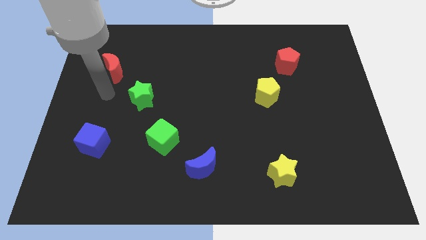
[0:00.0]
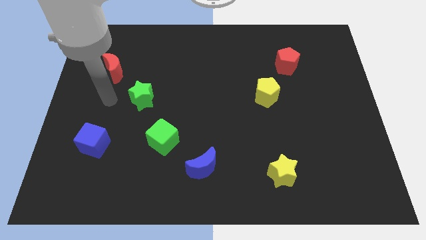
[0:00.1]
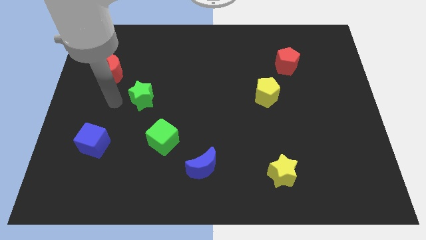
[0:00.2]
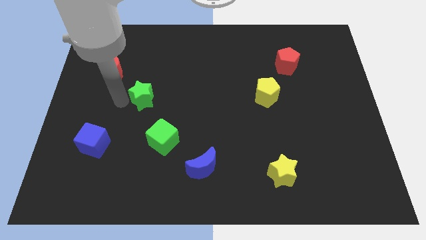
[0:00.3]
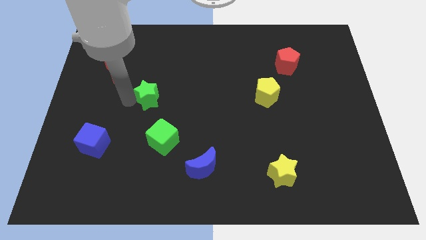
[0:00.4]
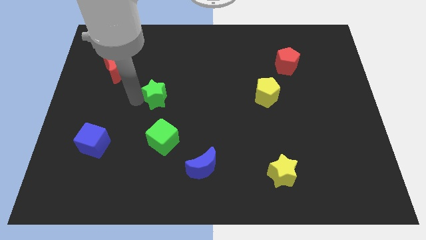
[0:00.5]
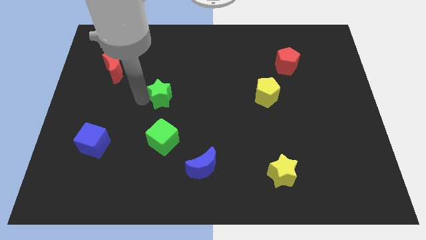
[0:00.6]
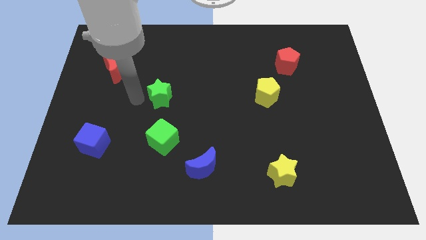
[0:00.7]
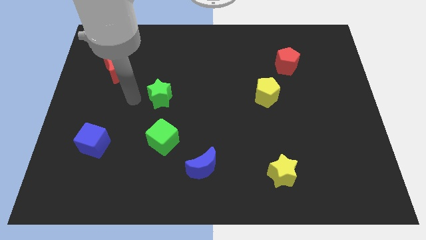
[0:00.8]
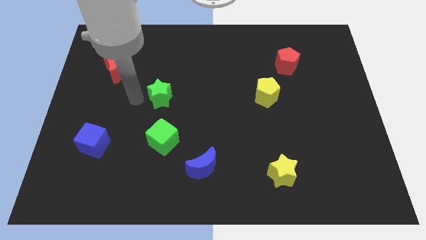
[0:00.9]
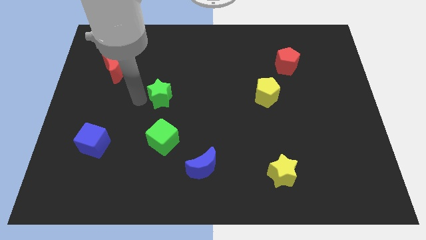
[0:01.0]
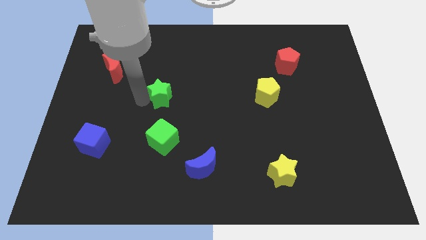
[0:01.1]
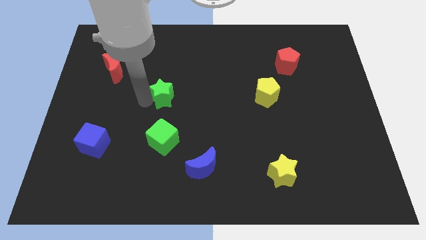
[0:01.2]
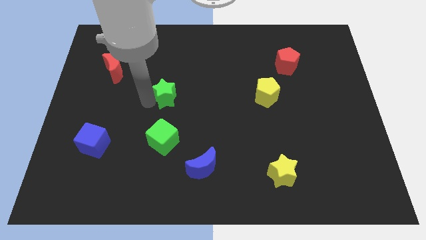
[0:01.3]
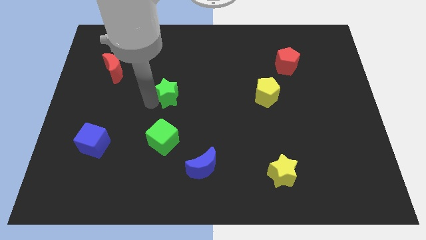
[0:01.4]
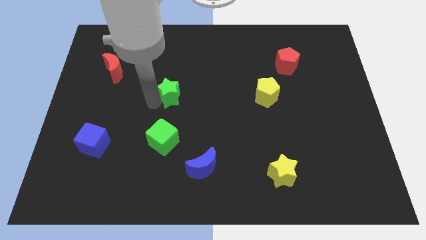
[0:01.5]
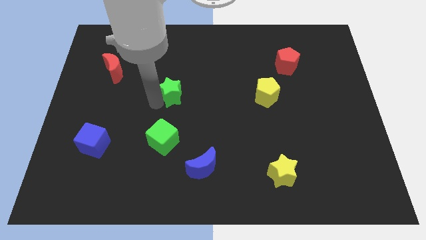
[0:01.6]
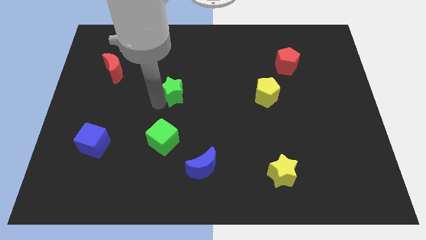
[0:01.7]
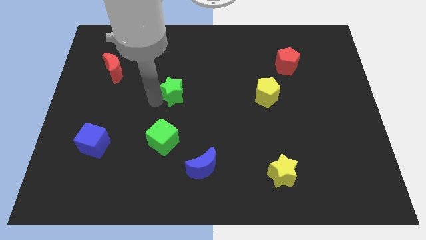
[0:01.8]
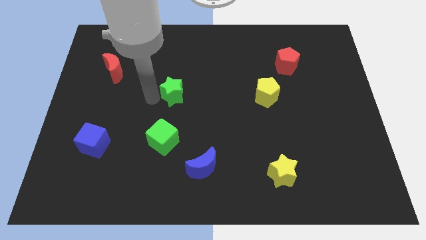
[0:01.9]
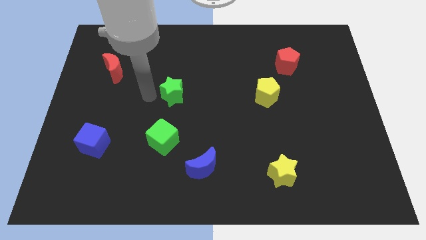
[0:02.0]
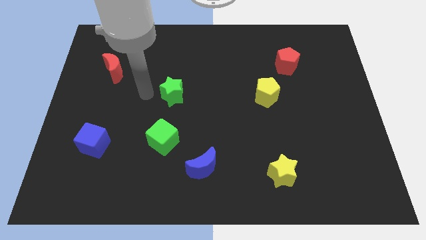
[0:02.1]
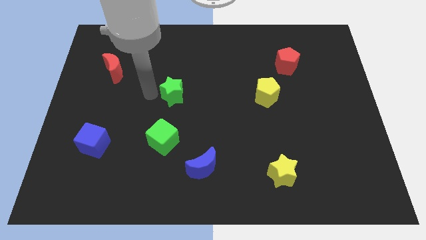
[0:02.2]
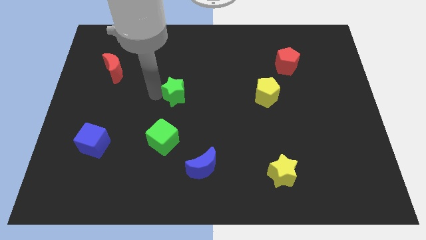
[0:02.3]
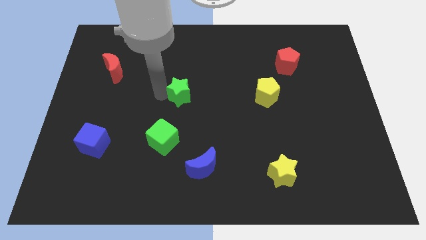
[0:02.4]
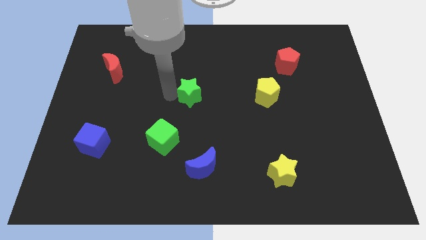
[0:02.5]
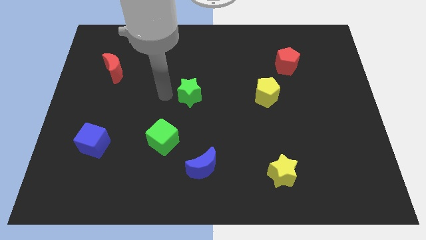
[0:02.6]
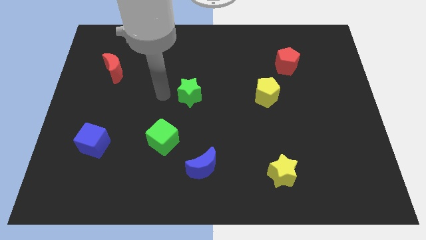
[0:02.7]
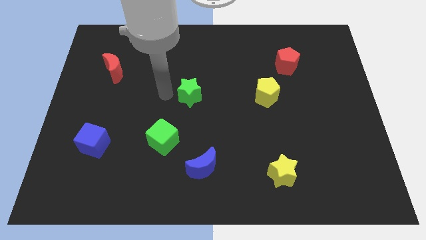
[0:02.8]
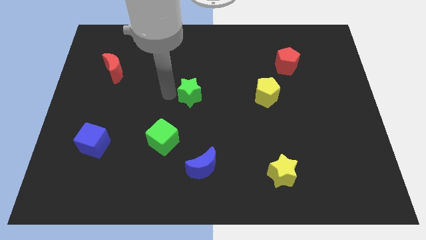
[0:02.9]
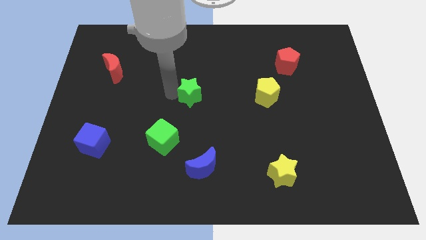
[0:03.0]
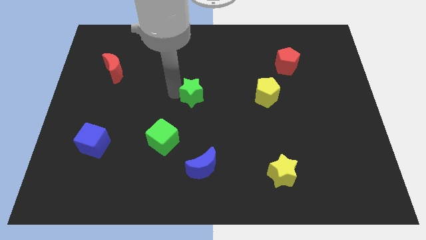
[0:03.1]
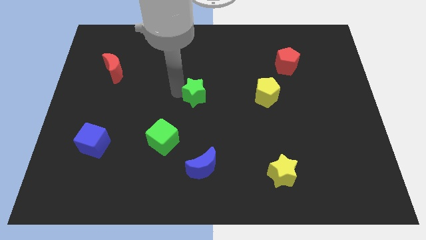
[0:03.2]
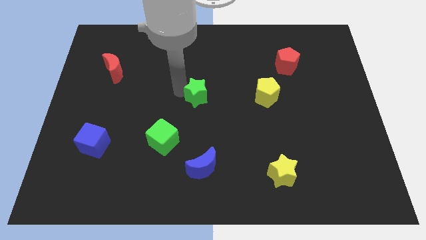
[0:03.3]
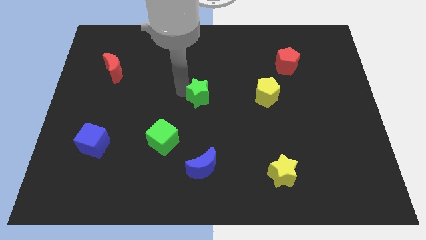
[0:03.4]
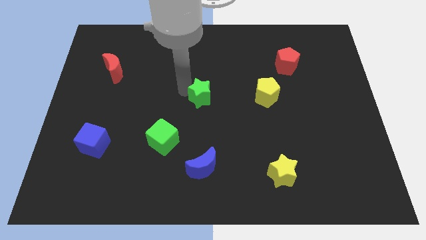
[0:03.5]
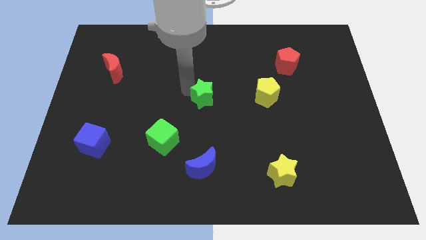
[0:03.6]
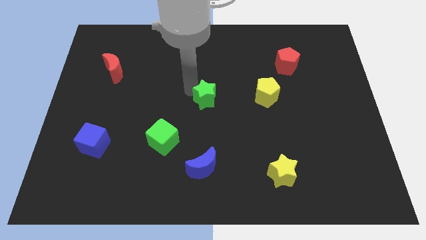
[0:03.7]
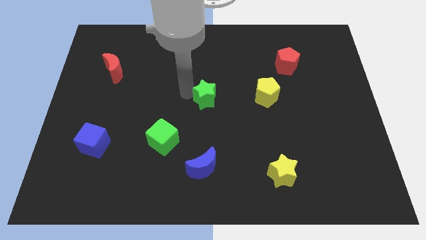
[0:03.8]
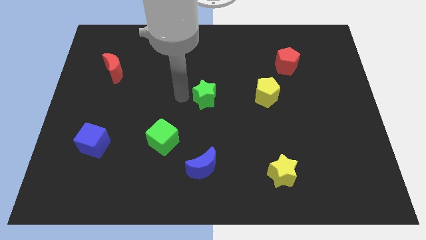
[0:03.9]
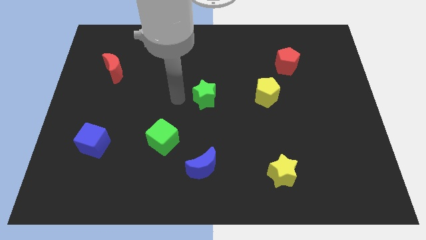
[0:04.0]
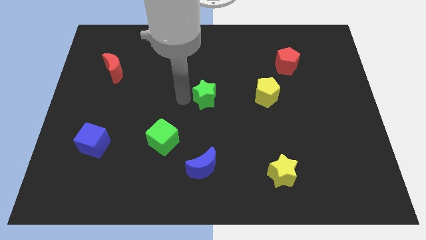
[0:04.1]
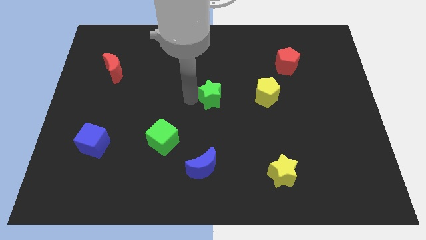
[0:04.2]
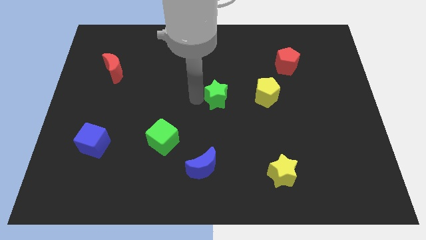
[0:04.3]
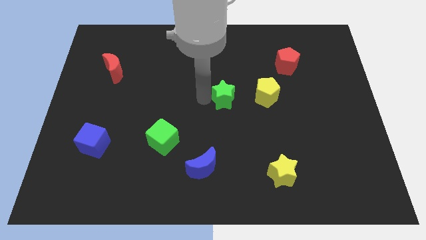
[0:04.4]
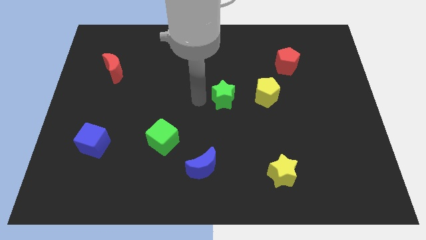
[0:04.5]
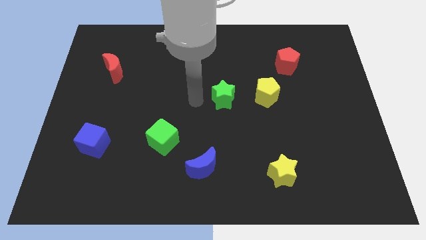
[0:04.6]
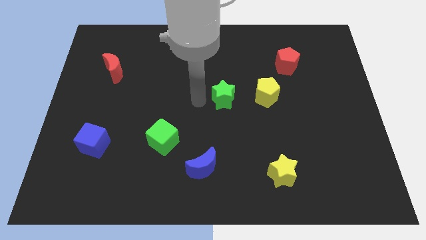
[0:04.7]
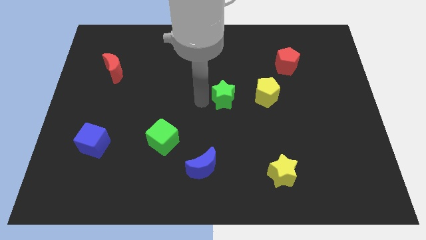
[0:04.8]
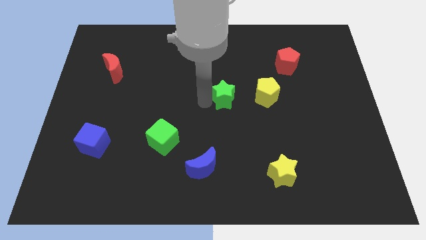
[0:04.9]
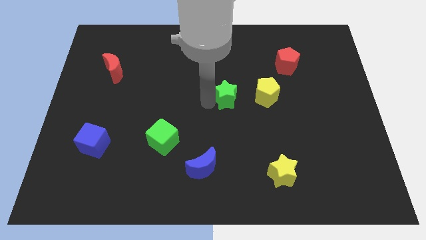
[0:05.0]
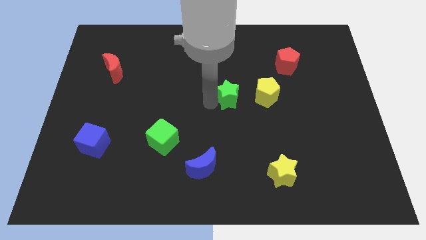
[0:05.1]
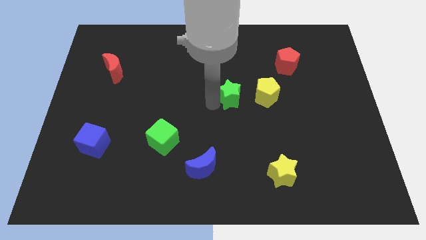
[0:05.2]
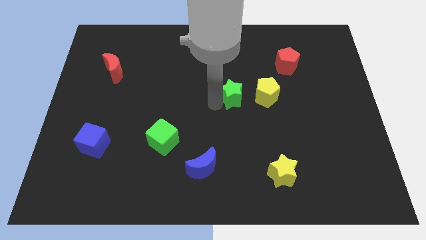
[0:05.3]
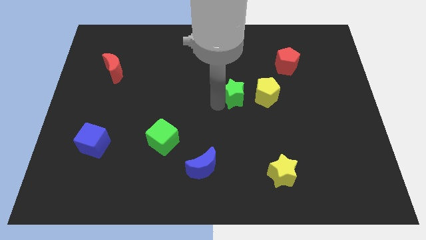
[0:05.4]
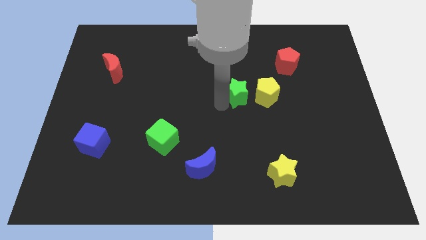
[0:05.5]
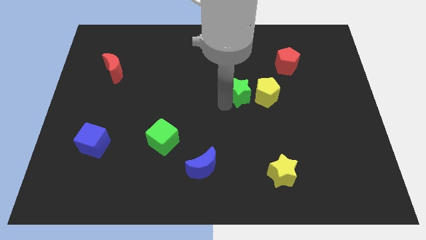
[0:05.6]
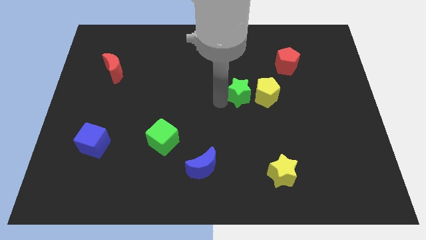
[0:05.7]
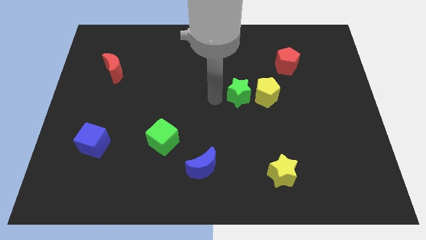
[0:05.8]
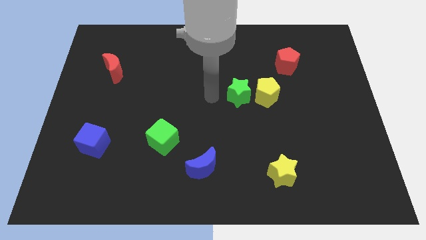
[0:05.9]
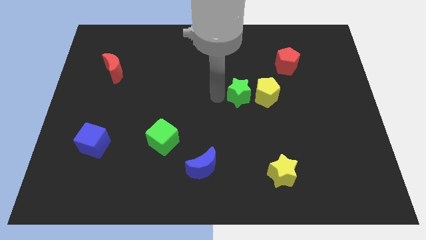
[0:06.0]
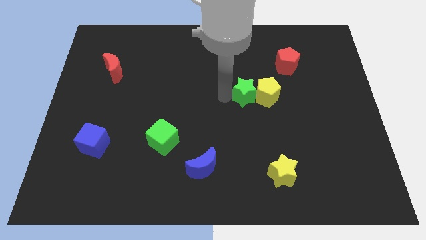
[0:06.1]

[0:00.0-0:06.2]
slide the green star to the yellow pentagon

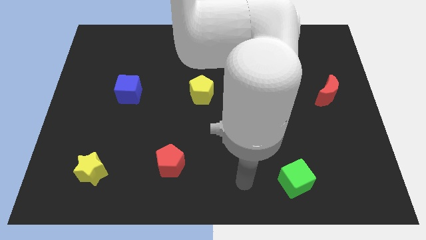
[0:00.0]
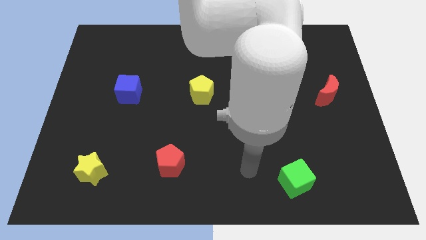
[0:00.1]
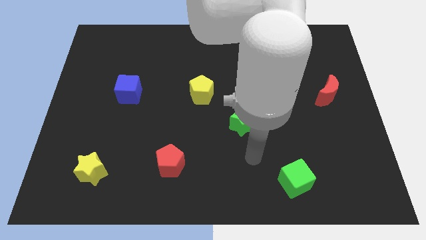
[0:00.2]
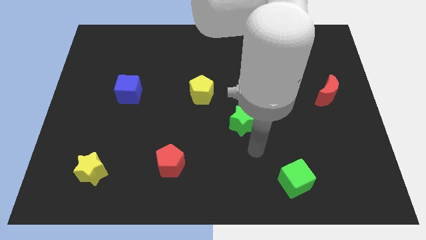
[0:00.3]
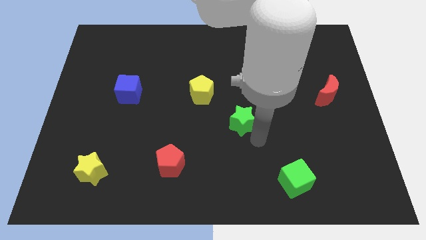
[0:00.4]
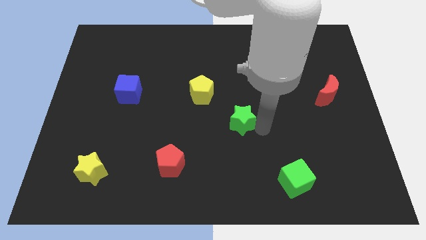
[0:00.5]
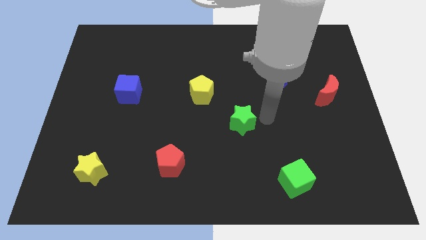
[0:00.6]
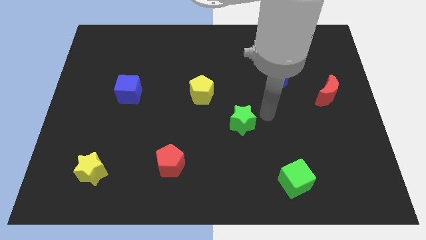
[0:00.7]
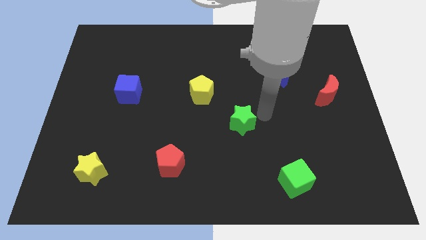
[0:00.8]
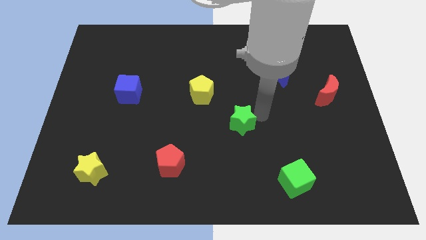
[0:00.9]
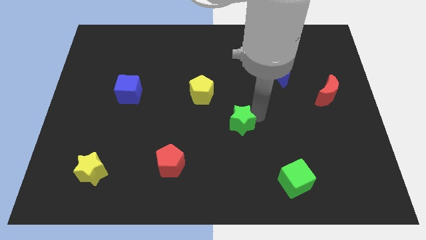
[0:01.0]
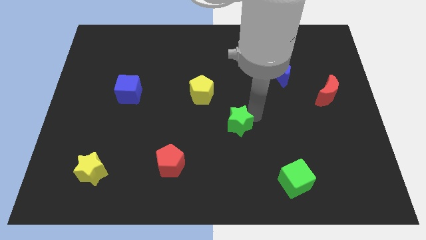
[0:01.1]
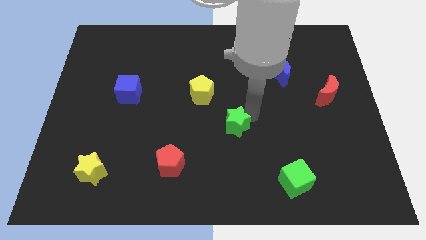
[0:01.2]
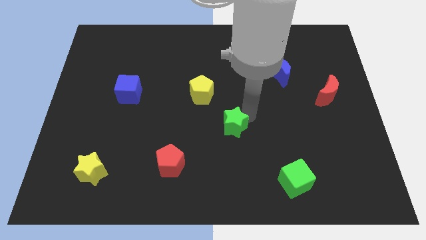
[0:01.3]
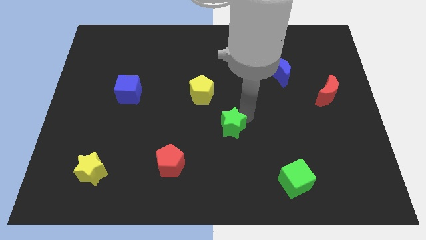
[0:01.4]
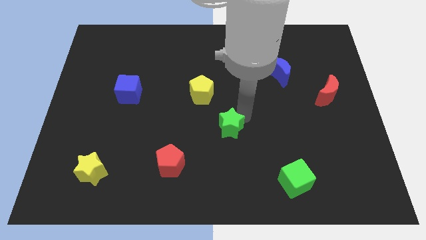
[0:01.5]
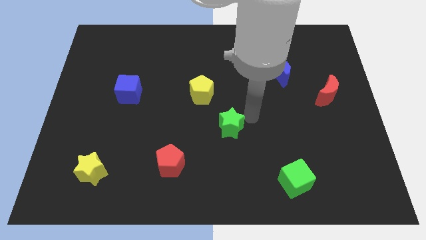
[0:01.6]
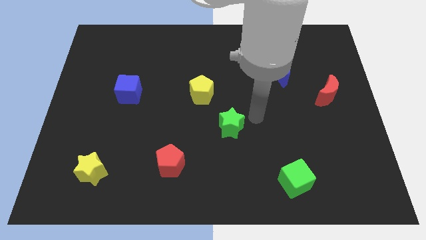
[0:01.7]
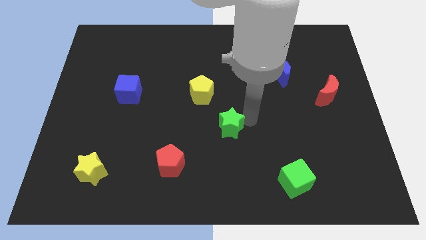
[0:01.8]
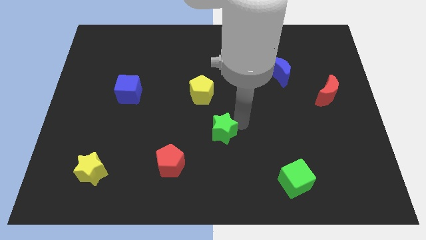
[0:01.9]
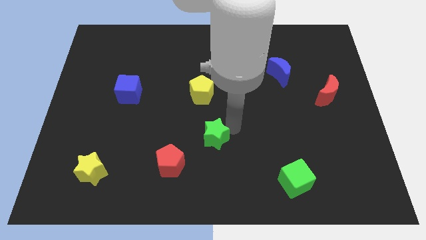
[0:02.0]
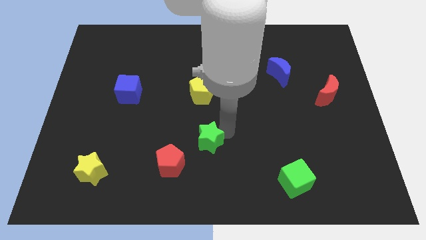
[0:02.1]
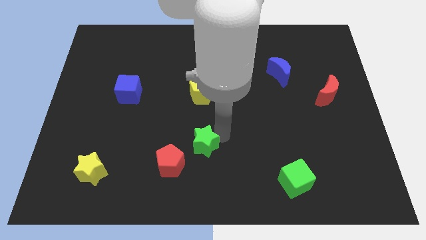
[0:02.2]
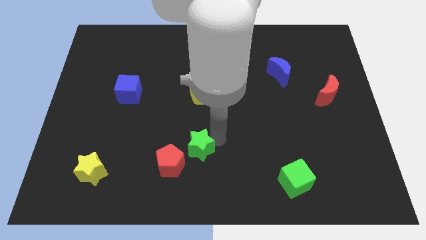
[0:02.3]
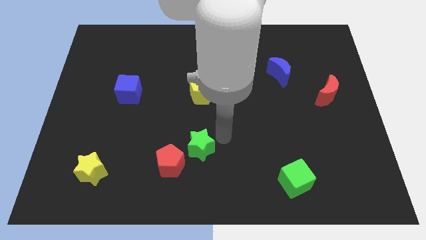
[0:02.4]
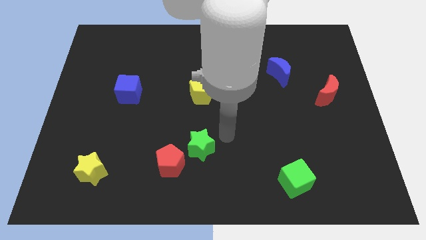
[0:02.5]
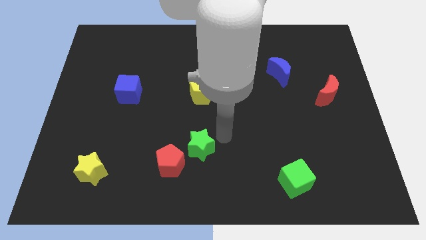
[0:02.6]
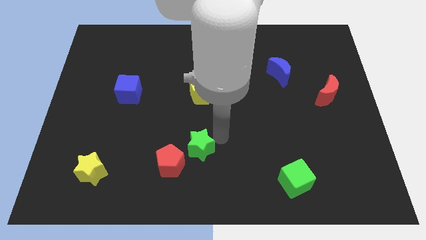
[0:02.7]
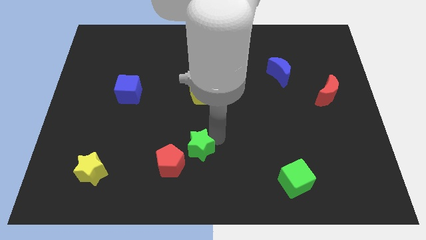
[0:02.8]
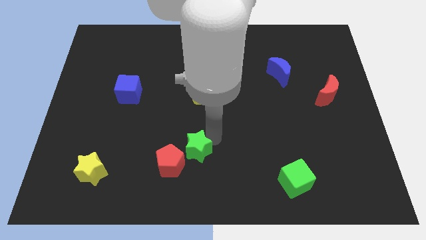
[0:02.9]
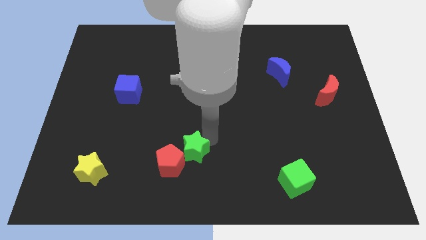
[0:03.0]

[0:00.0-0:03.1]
slide the green star next to the red pentagon
